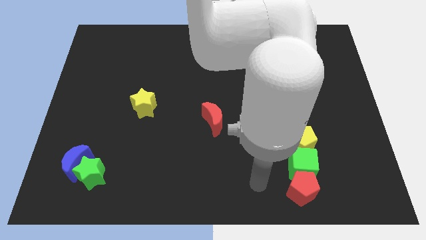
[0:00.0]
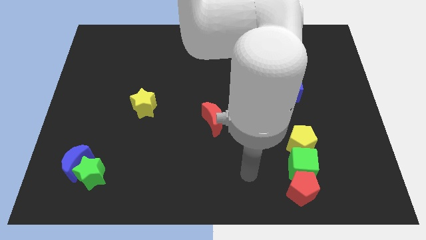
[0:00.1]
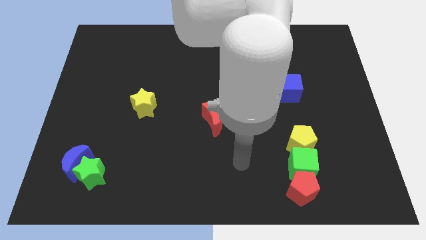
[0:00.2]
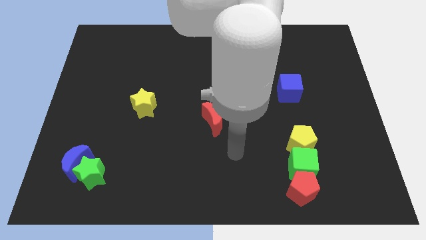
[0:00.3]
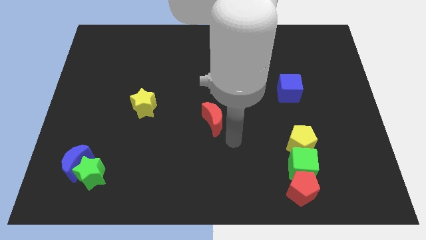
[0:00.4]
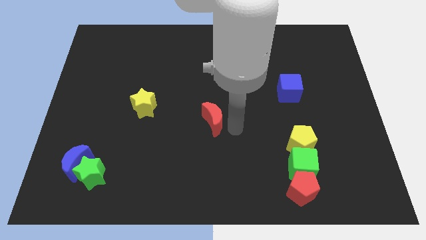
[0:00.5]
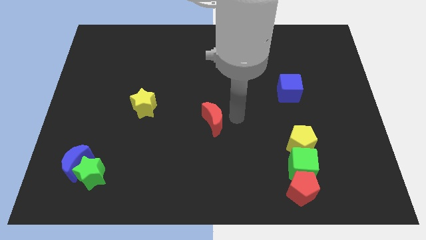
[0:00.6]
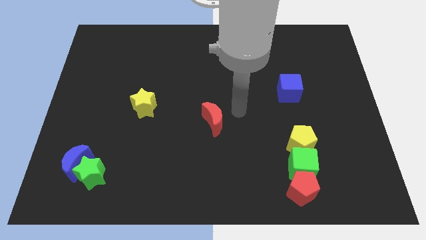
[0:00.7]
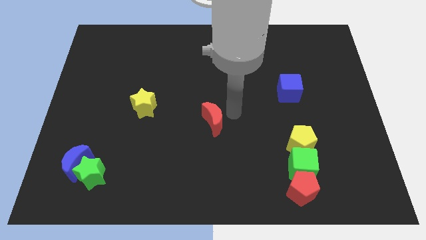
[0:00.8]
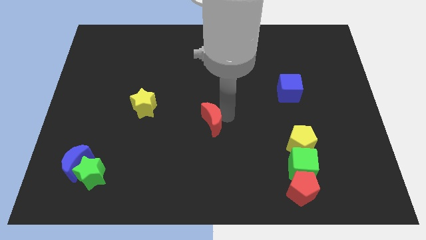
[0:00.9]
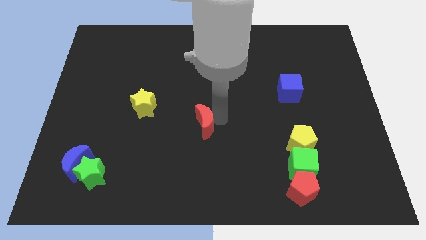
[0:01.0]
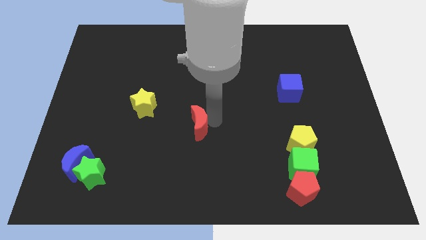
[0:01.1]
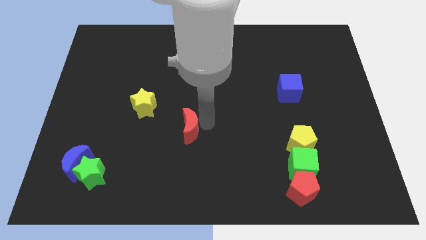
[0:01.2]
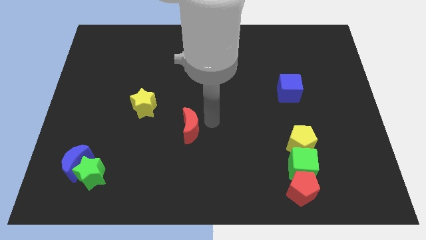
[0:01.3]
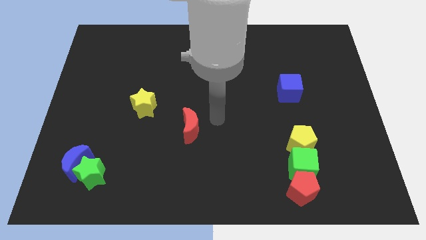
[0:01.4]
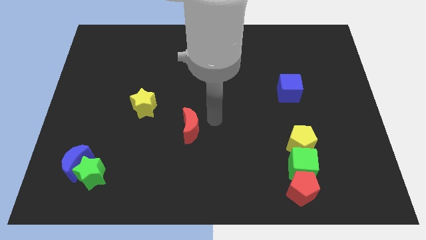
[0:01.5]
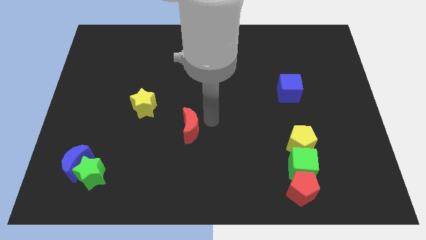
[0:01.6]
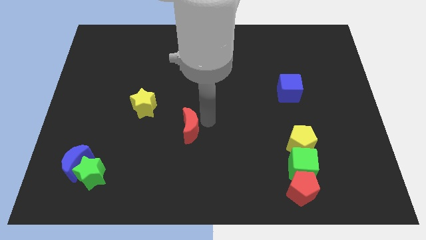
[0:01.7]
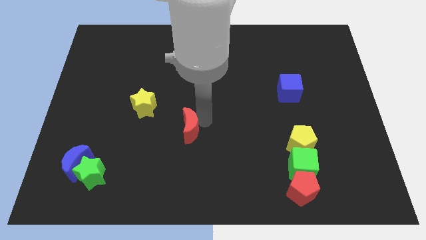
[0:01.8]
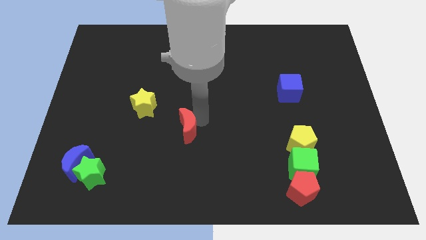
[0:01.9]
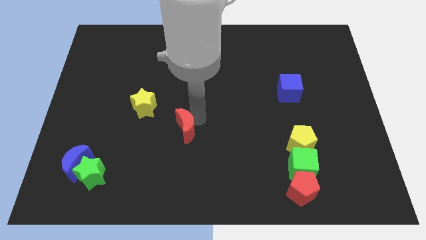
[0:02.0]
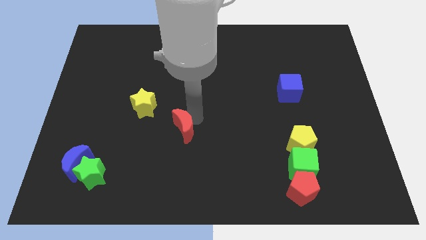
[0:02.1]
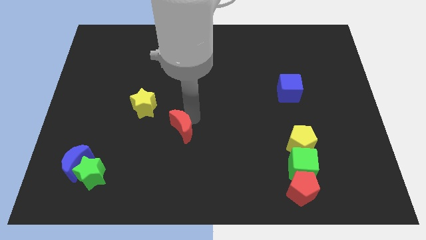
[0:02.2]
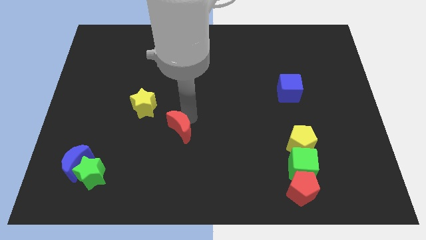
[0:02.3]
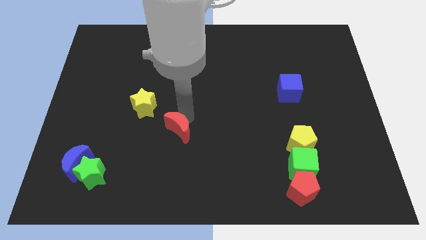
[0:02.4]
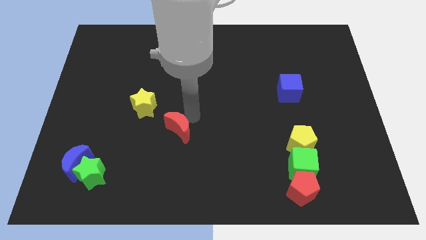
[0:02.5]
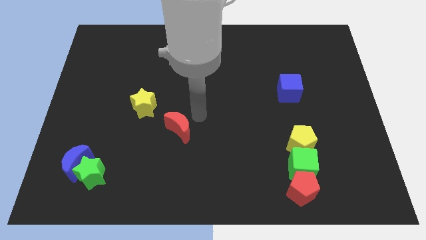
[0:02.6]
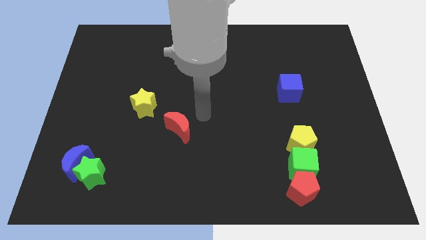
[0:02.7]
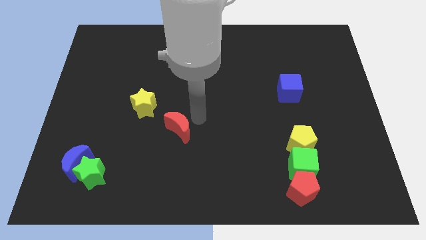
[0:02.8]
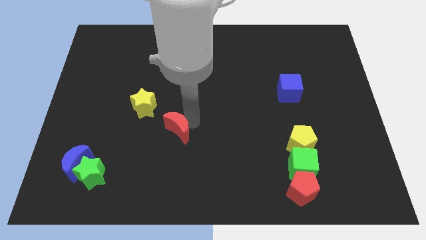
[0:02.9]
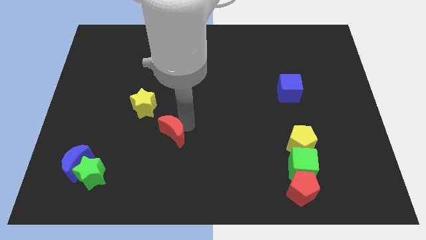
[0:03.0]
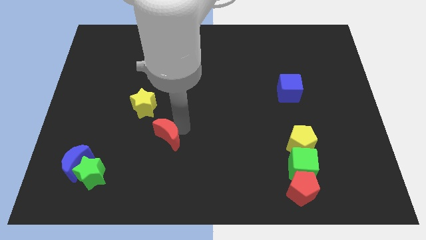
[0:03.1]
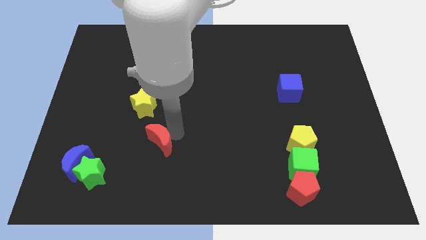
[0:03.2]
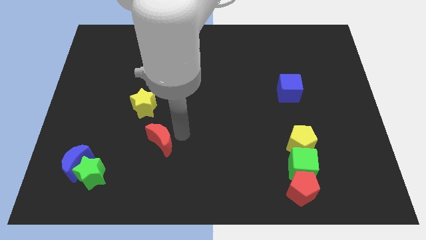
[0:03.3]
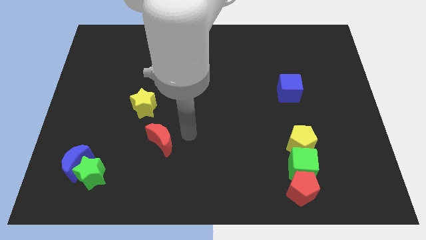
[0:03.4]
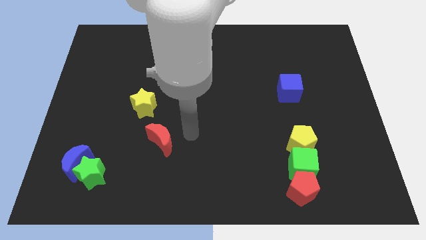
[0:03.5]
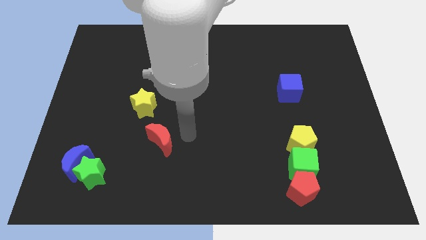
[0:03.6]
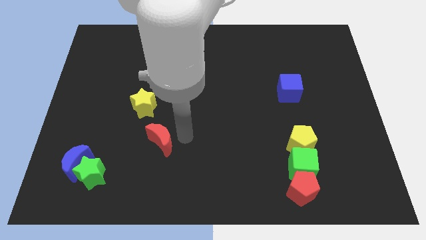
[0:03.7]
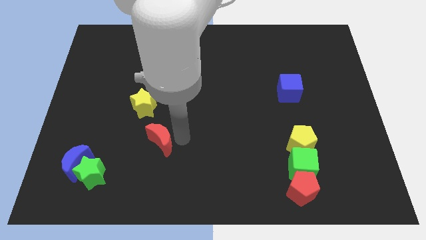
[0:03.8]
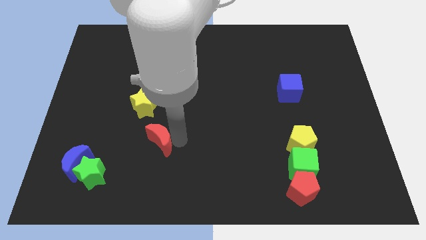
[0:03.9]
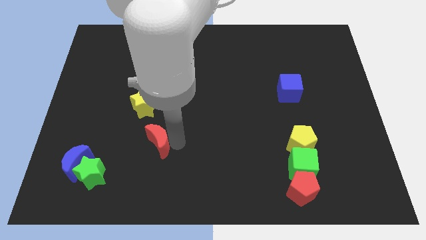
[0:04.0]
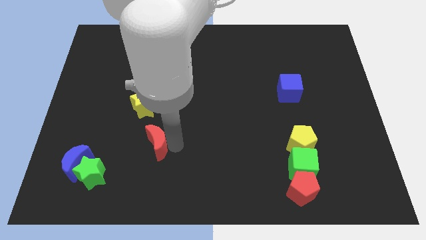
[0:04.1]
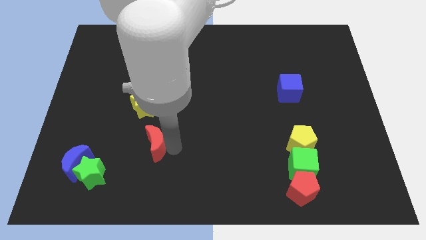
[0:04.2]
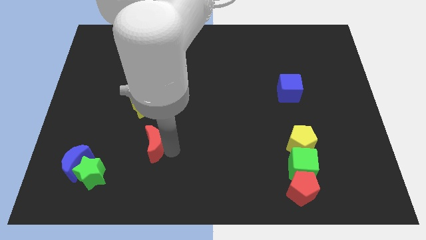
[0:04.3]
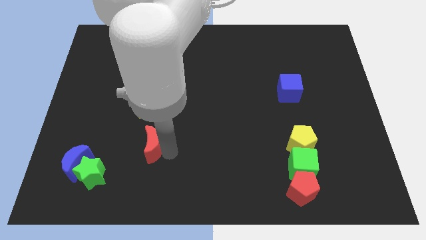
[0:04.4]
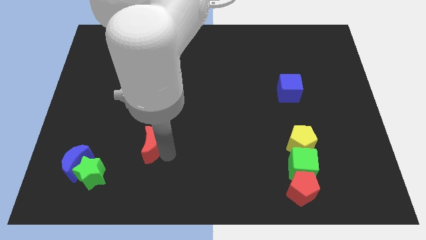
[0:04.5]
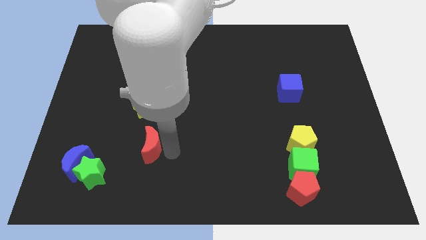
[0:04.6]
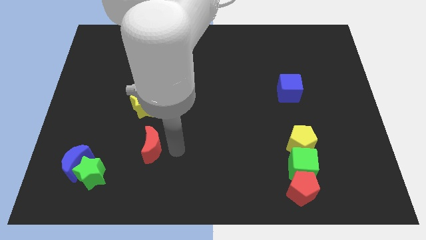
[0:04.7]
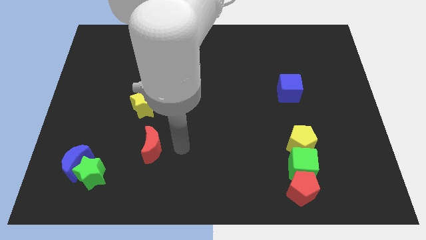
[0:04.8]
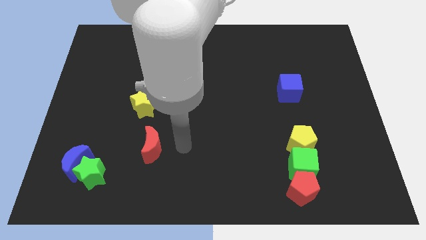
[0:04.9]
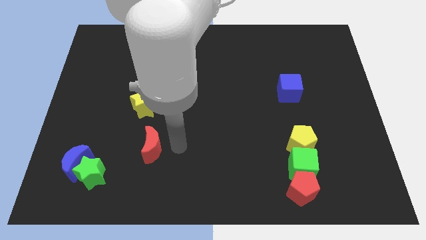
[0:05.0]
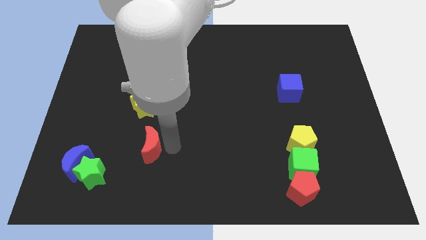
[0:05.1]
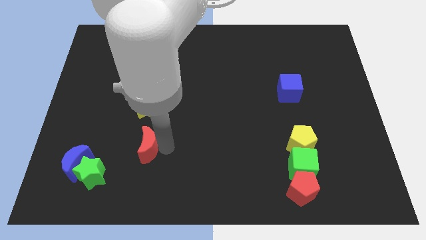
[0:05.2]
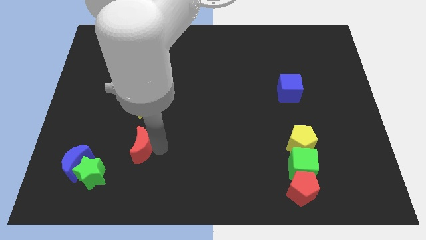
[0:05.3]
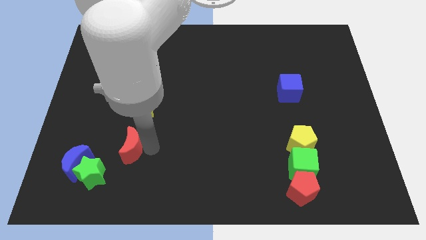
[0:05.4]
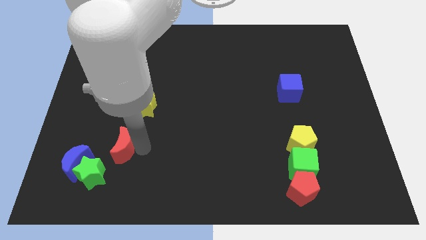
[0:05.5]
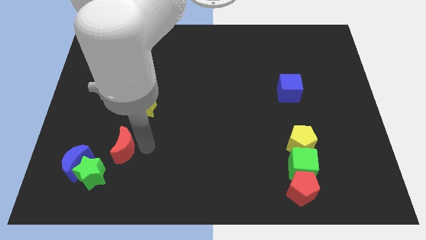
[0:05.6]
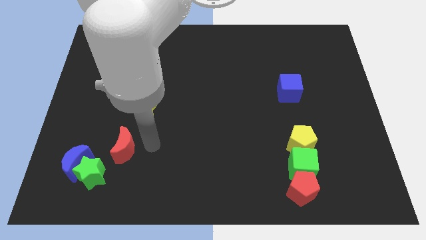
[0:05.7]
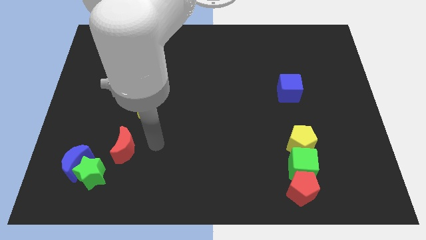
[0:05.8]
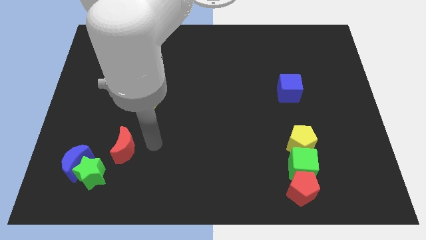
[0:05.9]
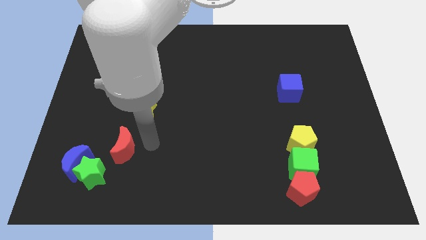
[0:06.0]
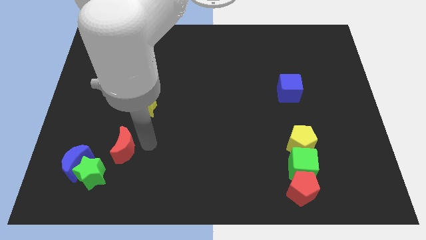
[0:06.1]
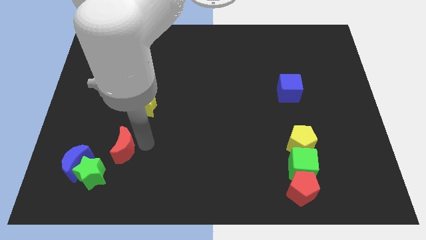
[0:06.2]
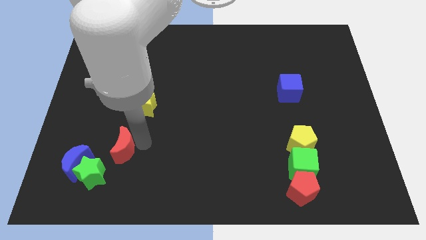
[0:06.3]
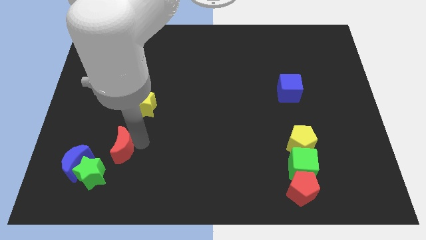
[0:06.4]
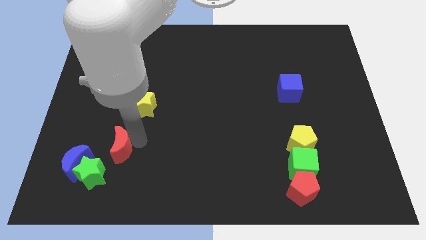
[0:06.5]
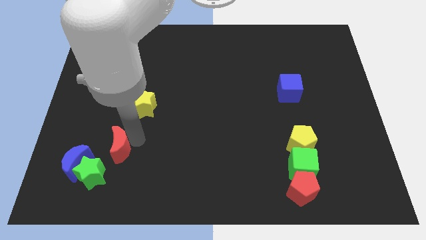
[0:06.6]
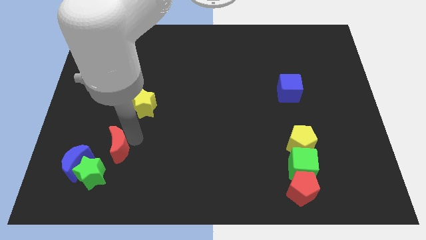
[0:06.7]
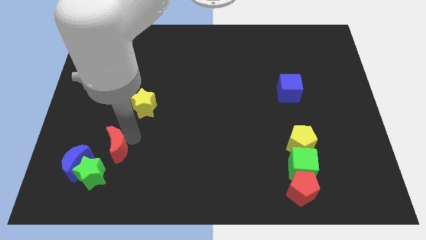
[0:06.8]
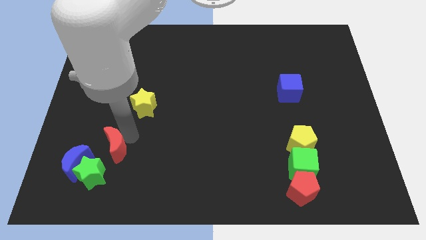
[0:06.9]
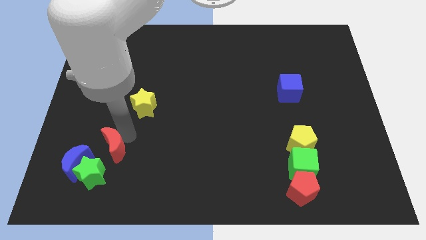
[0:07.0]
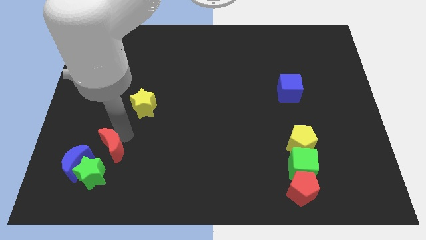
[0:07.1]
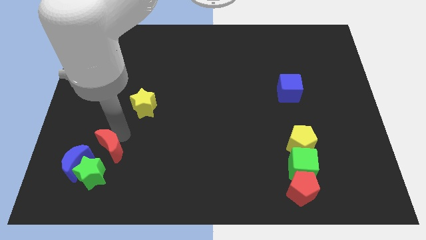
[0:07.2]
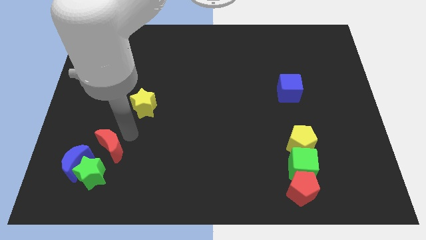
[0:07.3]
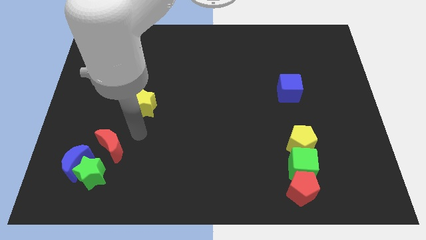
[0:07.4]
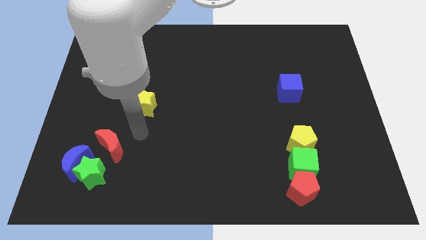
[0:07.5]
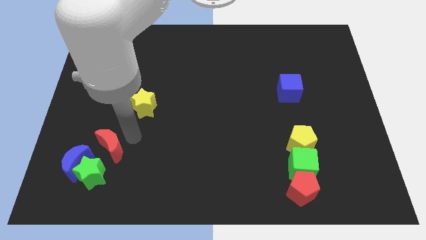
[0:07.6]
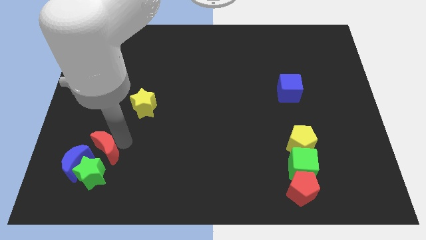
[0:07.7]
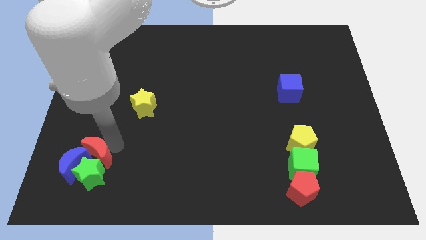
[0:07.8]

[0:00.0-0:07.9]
push the red moon towards the blue moon

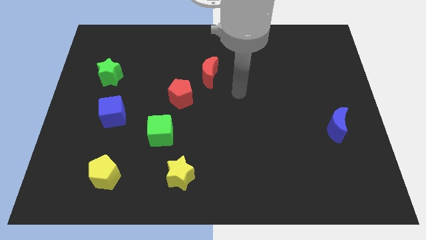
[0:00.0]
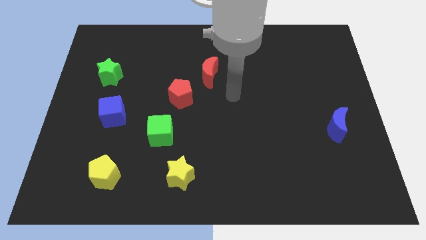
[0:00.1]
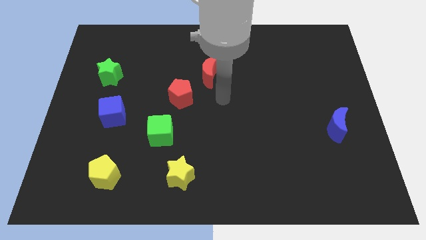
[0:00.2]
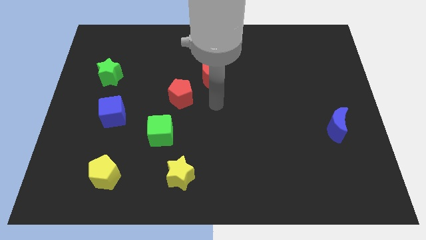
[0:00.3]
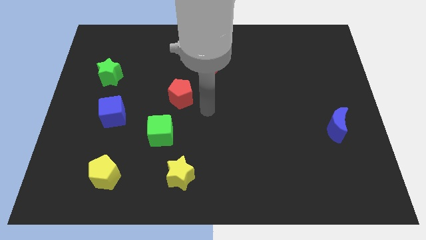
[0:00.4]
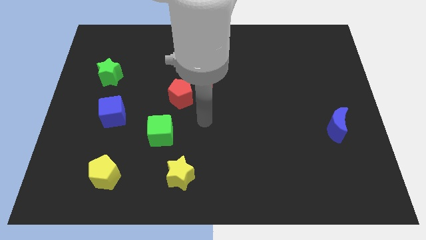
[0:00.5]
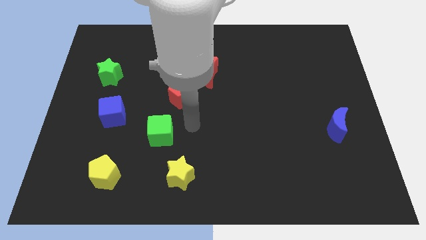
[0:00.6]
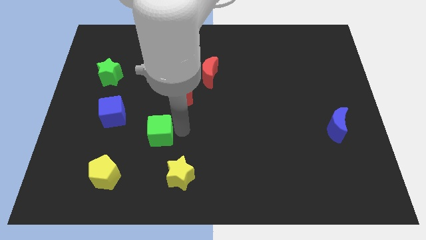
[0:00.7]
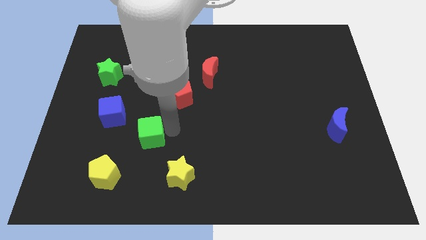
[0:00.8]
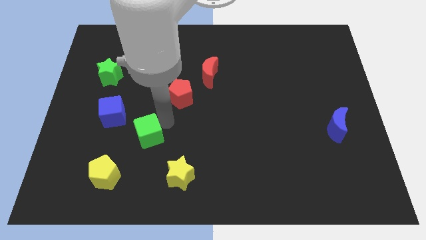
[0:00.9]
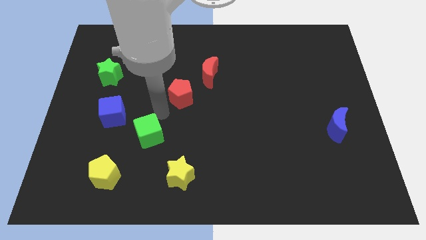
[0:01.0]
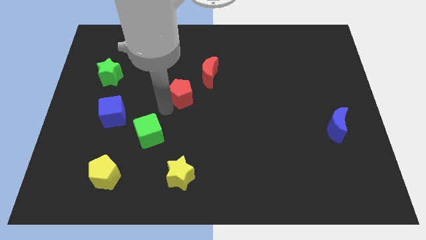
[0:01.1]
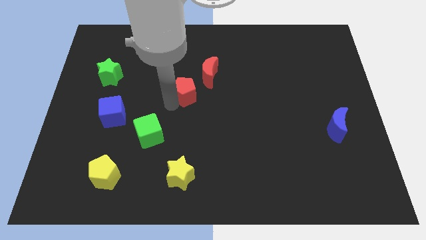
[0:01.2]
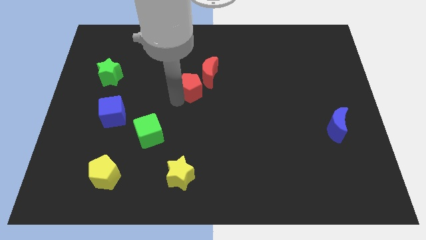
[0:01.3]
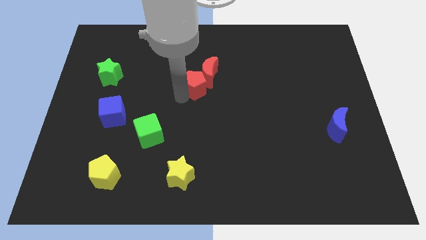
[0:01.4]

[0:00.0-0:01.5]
move the red pentagon close to the red moon
